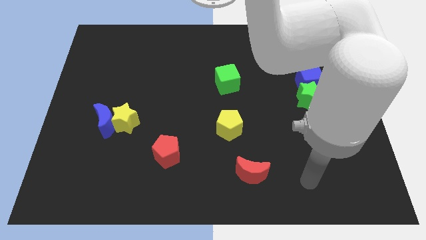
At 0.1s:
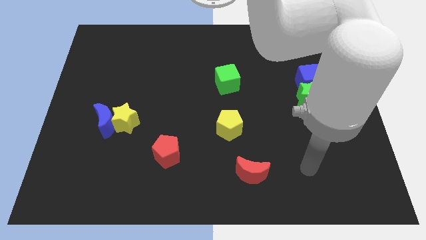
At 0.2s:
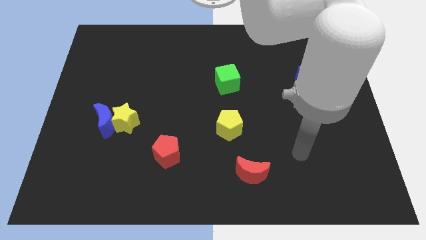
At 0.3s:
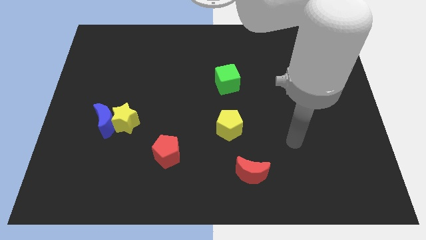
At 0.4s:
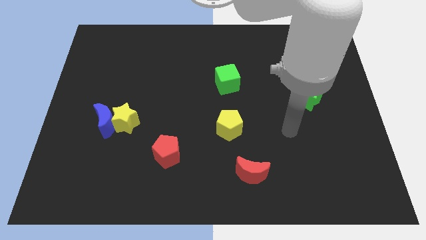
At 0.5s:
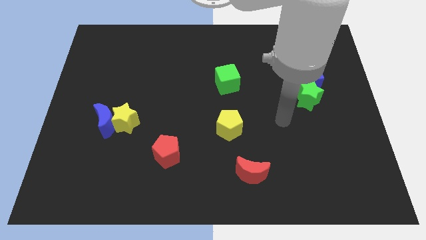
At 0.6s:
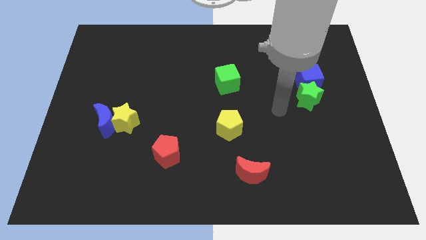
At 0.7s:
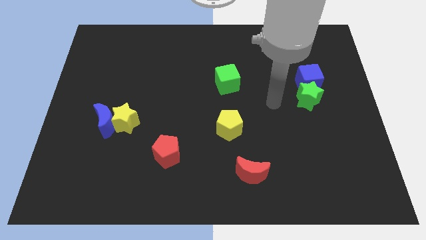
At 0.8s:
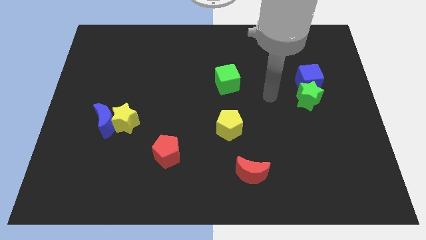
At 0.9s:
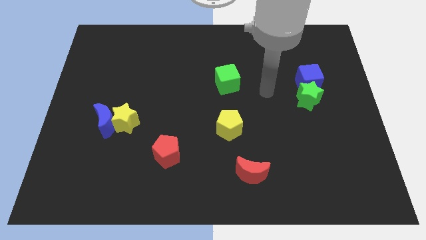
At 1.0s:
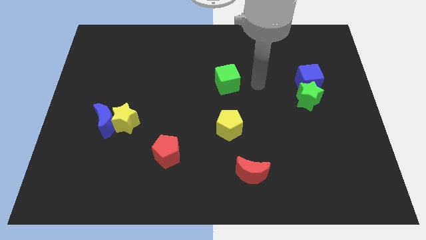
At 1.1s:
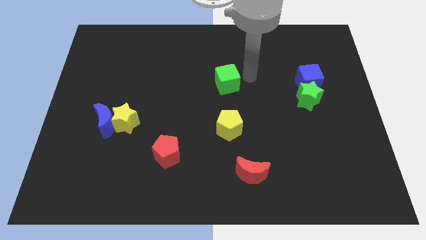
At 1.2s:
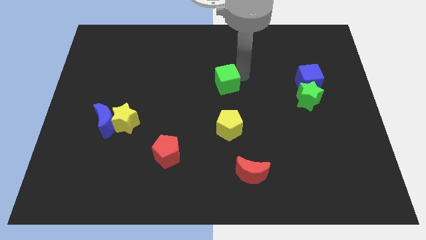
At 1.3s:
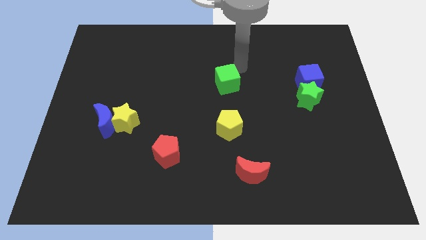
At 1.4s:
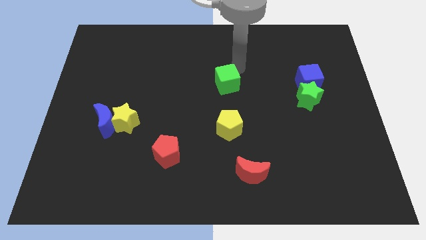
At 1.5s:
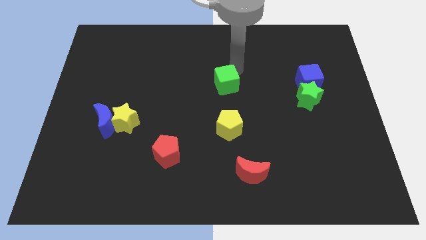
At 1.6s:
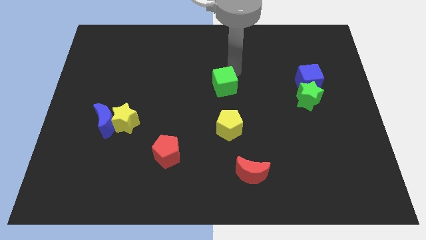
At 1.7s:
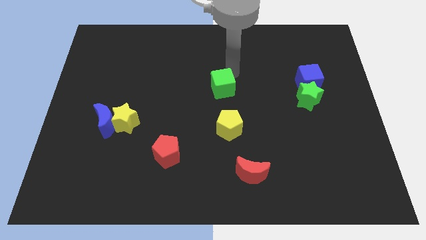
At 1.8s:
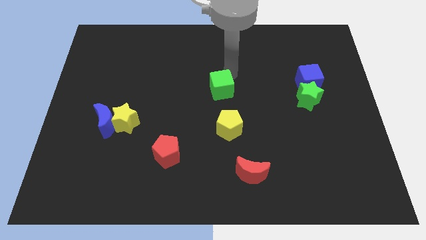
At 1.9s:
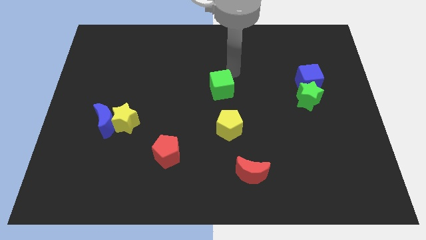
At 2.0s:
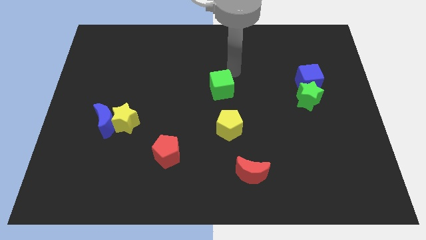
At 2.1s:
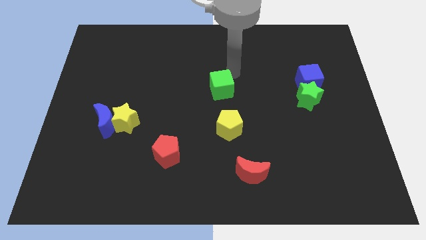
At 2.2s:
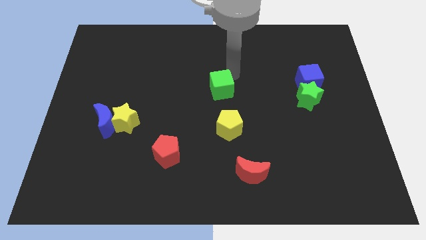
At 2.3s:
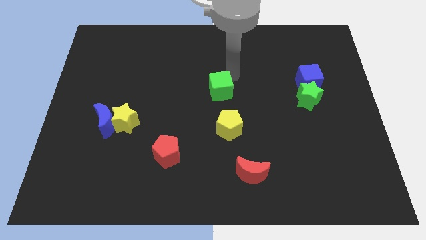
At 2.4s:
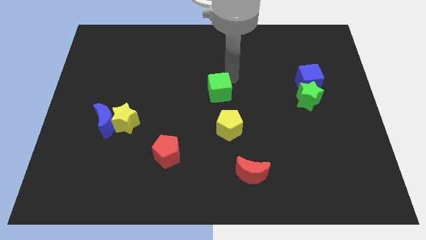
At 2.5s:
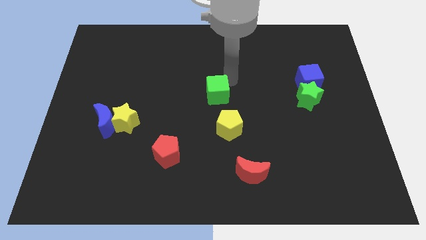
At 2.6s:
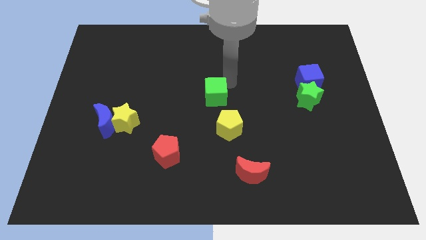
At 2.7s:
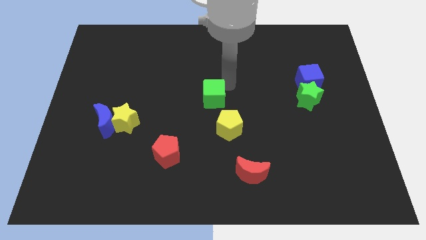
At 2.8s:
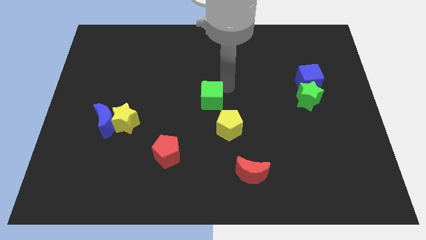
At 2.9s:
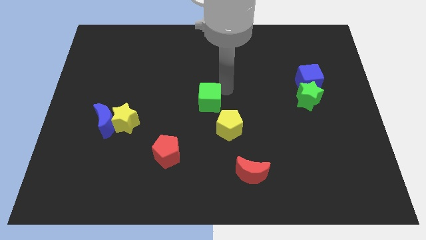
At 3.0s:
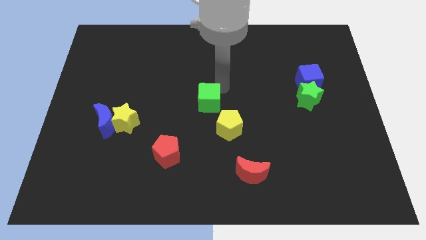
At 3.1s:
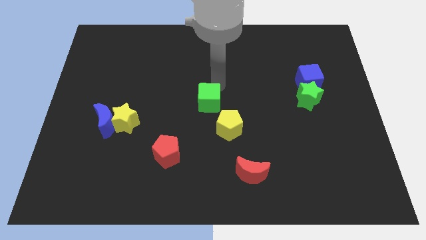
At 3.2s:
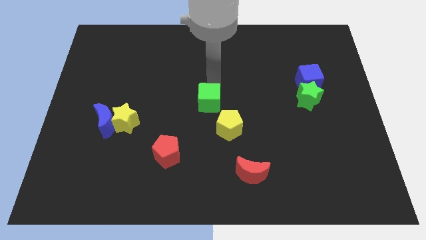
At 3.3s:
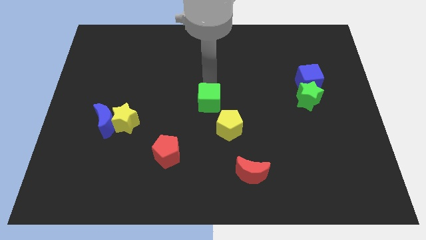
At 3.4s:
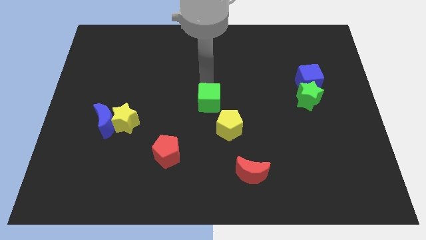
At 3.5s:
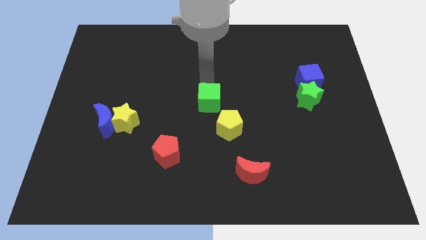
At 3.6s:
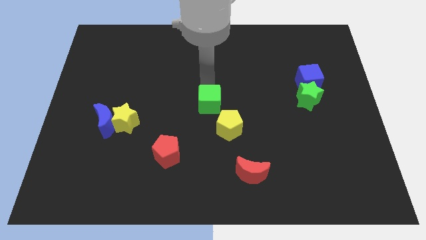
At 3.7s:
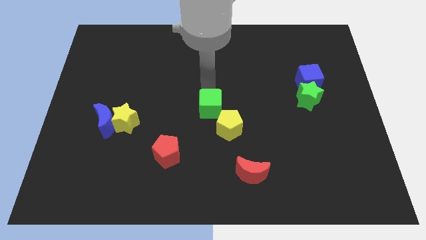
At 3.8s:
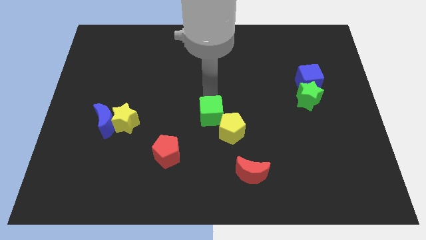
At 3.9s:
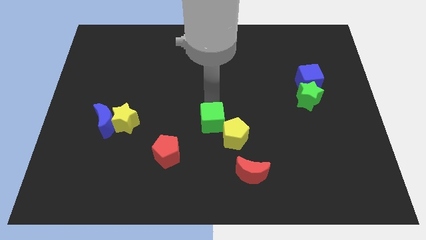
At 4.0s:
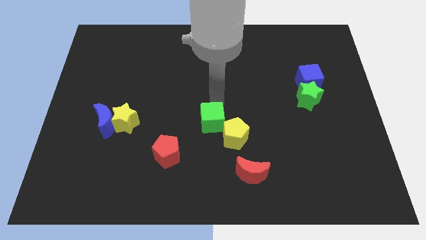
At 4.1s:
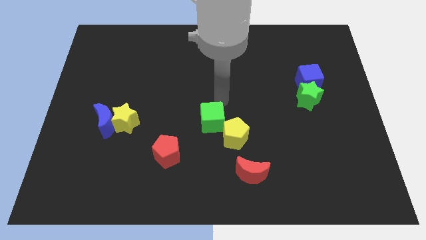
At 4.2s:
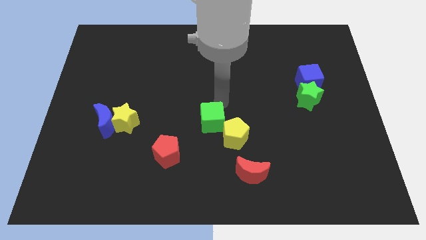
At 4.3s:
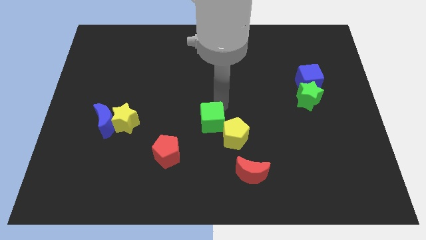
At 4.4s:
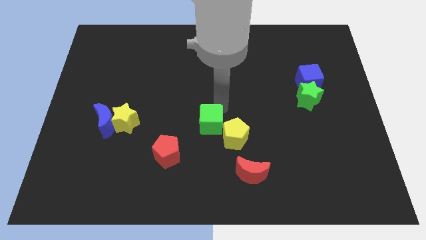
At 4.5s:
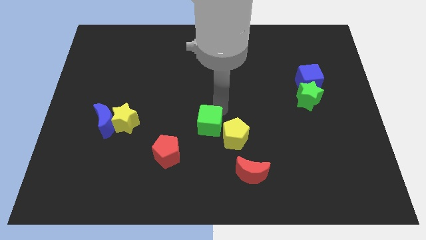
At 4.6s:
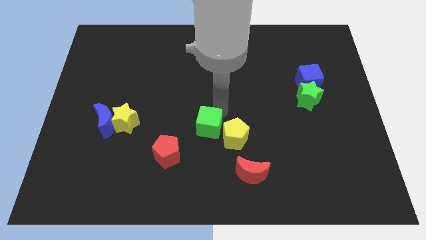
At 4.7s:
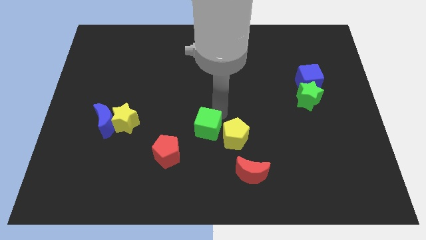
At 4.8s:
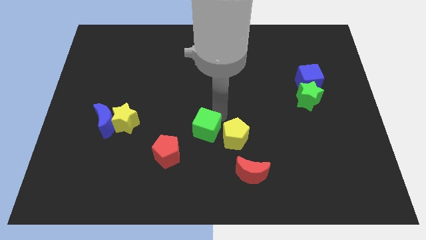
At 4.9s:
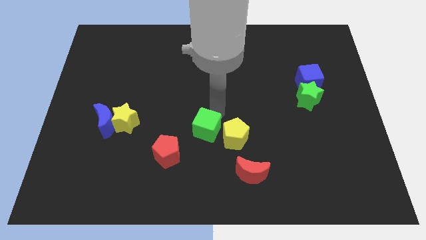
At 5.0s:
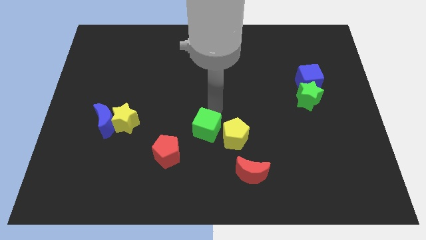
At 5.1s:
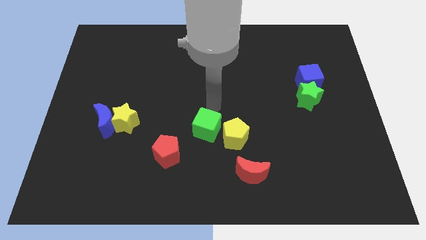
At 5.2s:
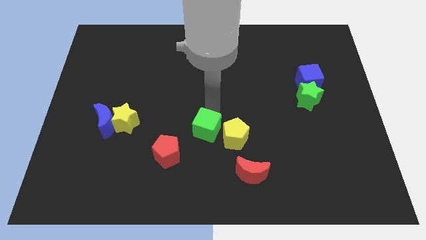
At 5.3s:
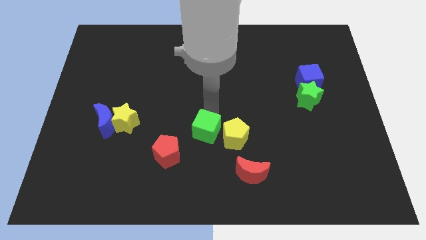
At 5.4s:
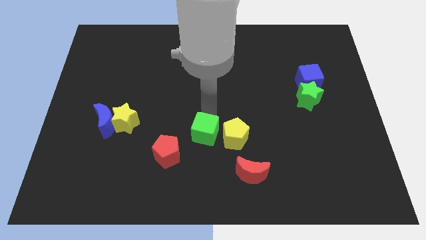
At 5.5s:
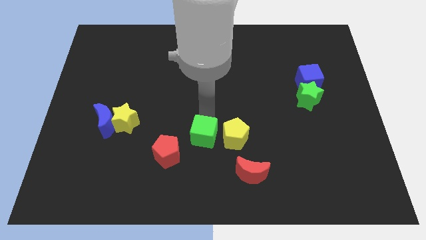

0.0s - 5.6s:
push the green cube to the right side of the red pentagon

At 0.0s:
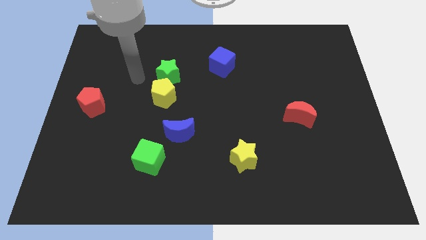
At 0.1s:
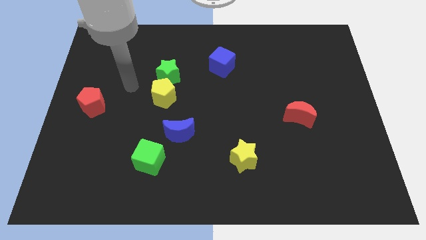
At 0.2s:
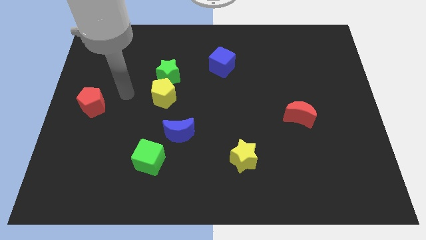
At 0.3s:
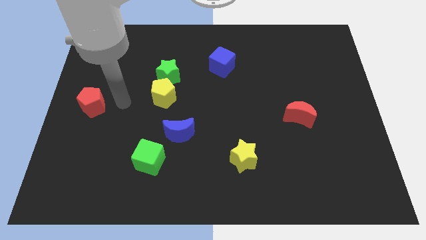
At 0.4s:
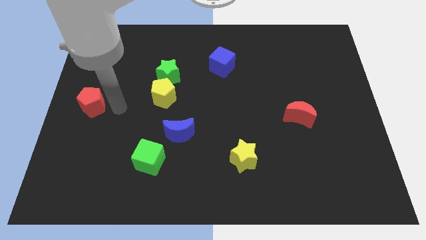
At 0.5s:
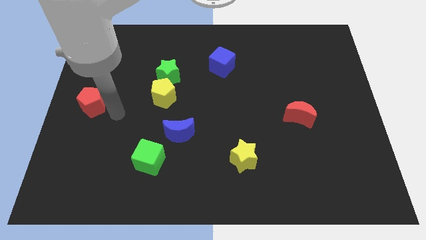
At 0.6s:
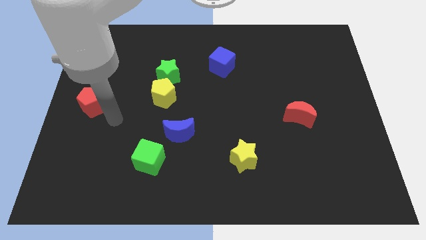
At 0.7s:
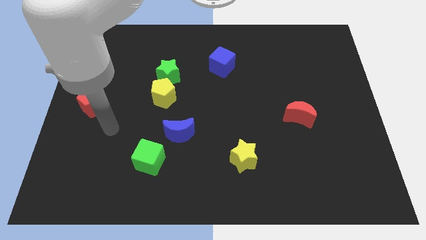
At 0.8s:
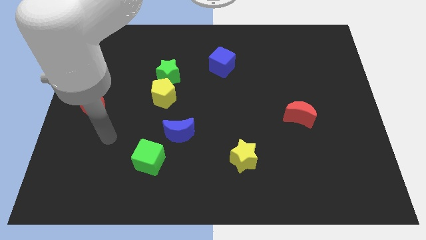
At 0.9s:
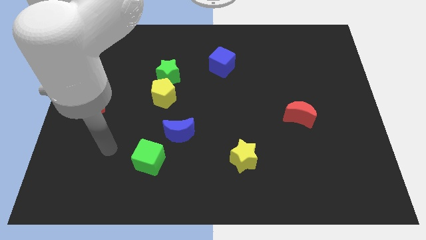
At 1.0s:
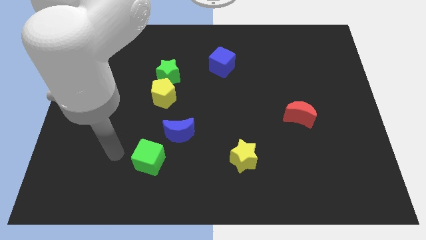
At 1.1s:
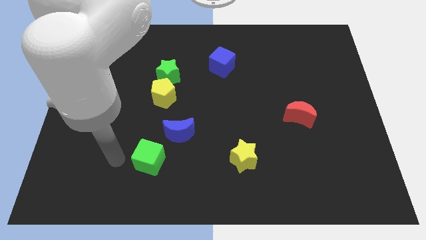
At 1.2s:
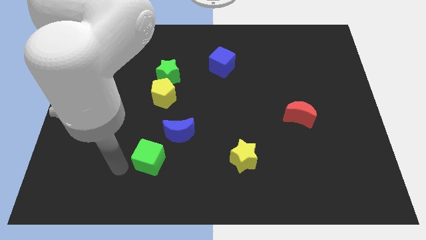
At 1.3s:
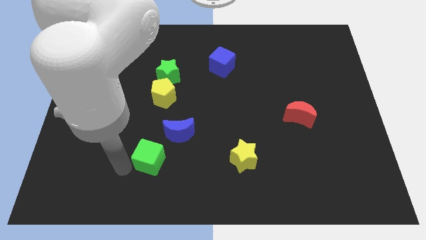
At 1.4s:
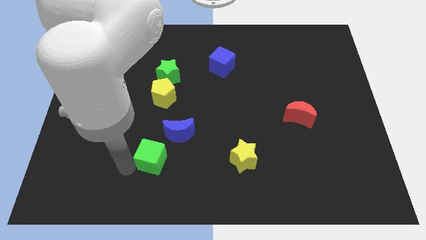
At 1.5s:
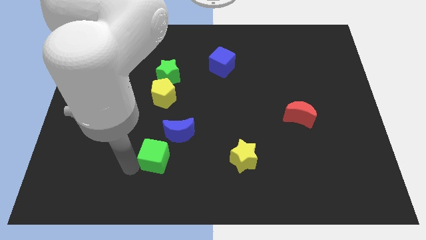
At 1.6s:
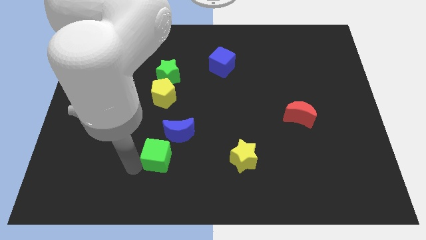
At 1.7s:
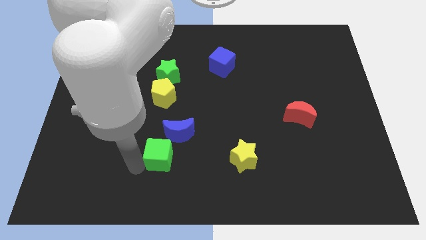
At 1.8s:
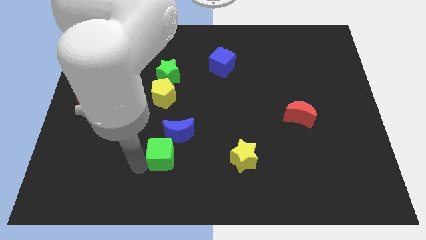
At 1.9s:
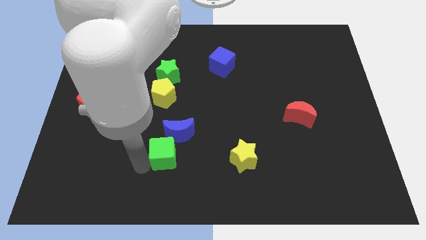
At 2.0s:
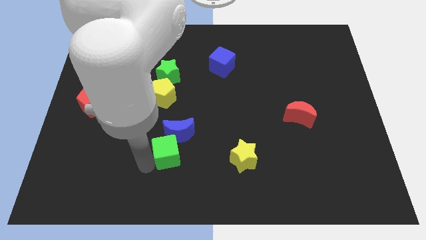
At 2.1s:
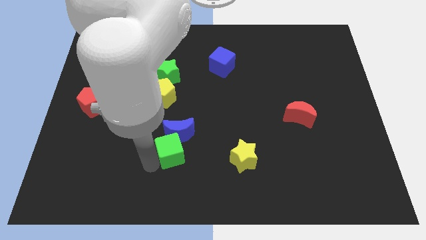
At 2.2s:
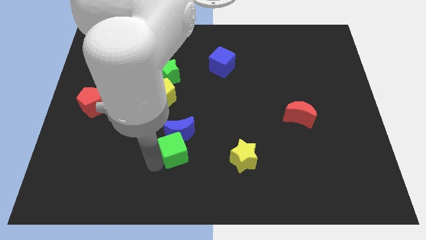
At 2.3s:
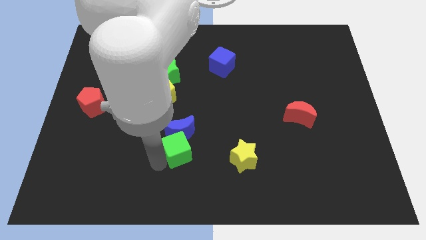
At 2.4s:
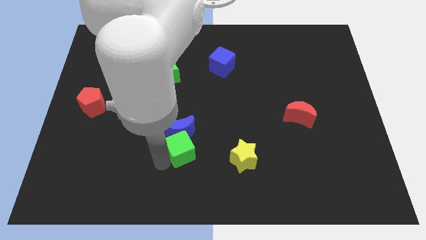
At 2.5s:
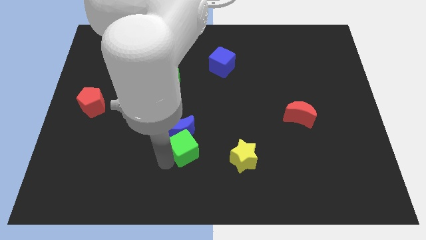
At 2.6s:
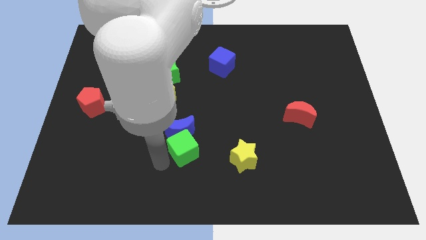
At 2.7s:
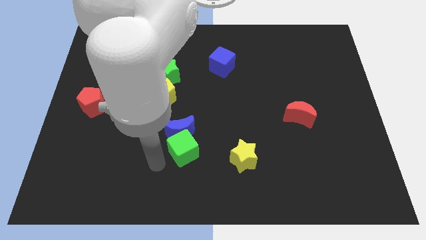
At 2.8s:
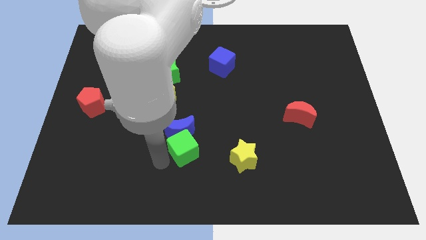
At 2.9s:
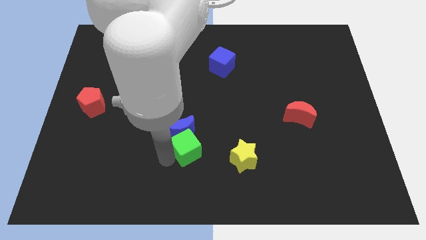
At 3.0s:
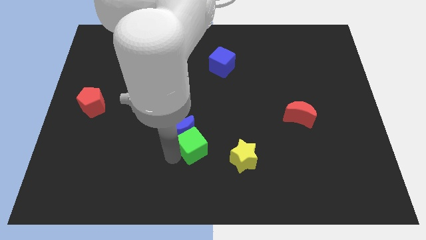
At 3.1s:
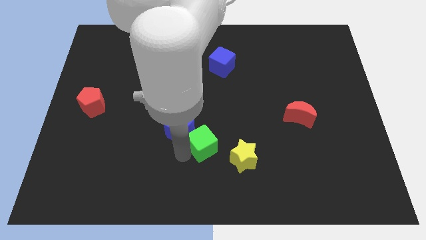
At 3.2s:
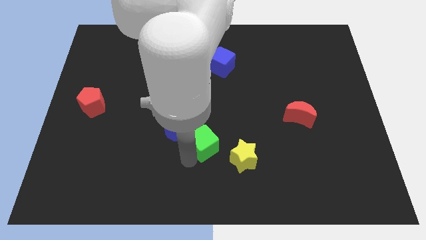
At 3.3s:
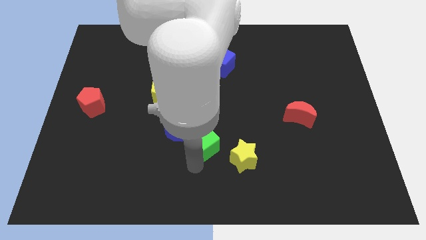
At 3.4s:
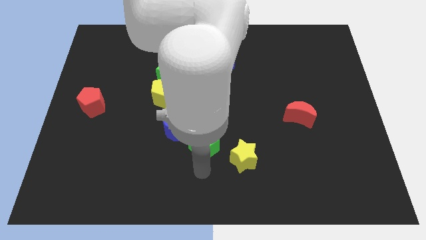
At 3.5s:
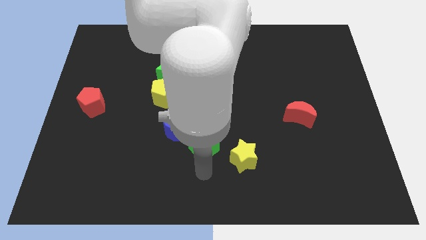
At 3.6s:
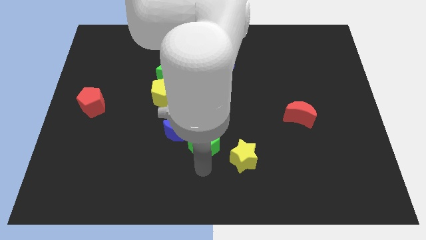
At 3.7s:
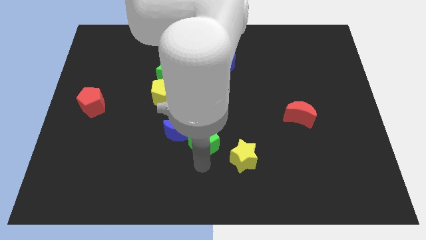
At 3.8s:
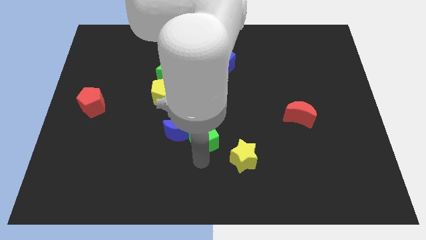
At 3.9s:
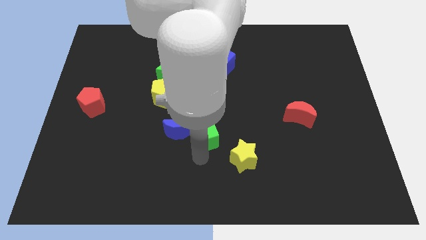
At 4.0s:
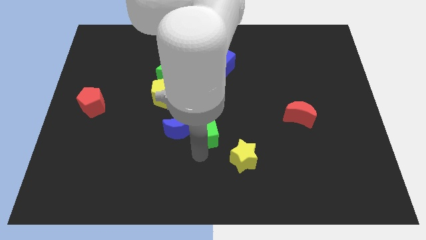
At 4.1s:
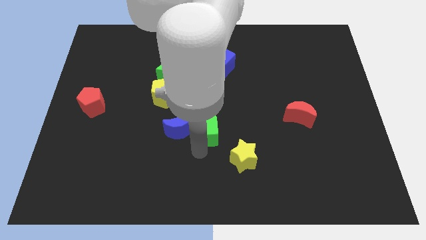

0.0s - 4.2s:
slide the green cube diagonally up and to the right of the blue moon
